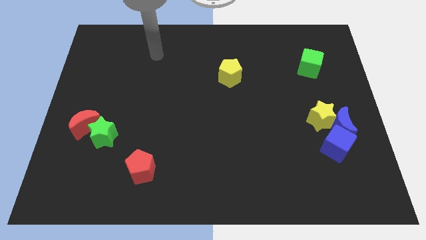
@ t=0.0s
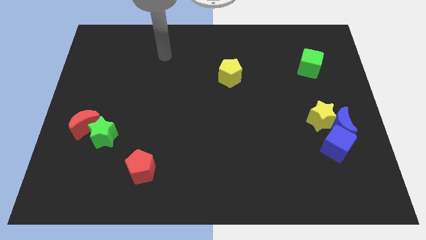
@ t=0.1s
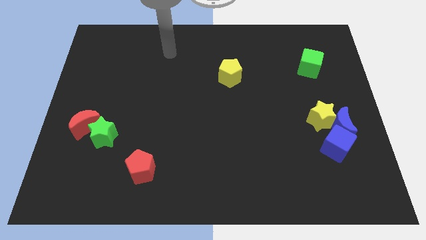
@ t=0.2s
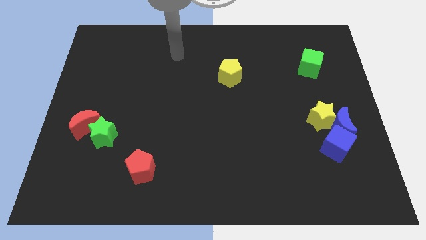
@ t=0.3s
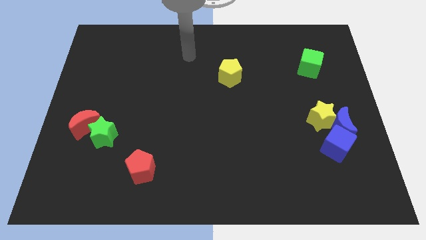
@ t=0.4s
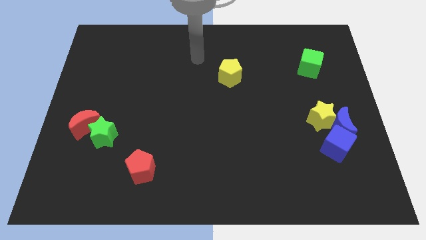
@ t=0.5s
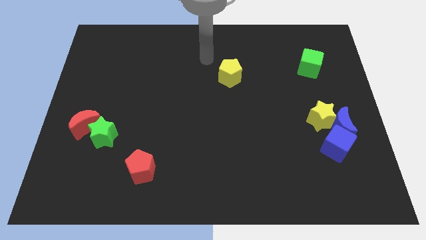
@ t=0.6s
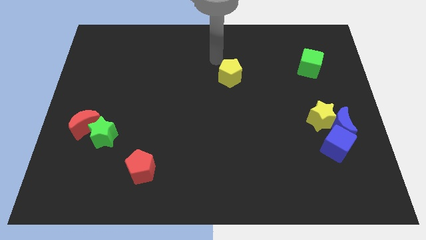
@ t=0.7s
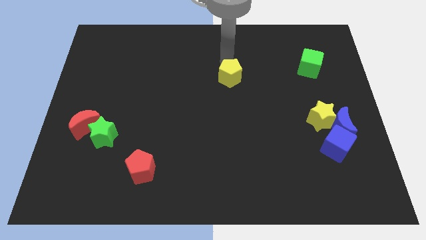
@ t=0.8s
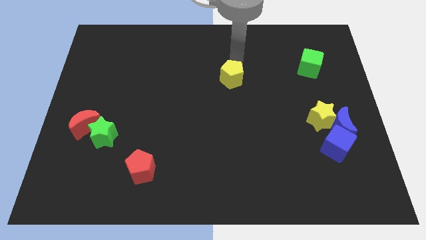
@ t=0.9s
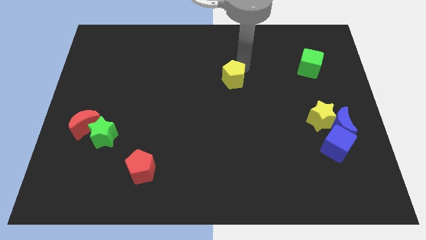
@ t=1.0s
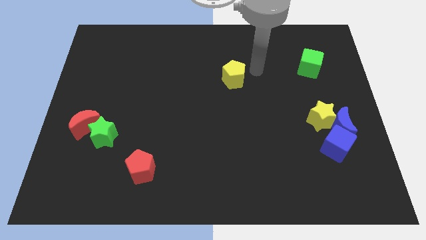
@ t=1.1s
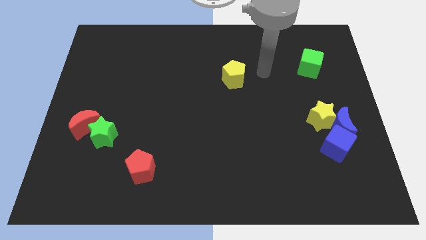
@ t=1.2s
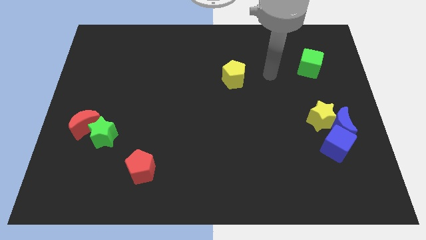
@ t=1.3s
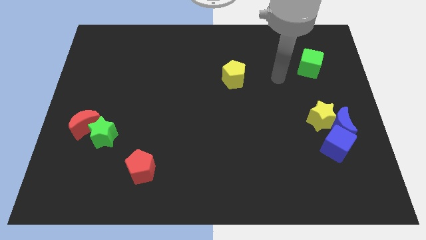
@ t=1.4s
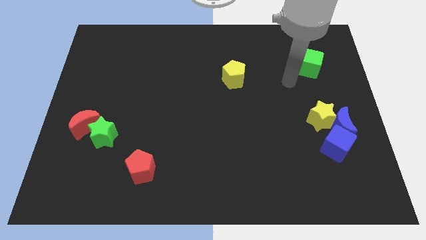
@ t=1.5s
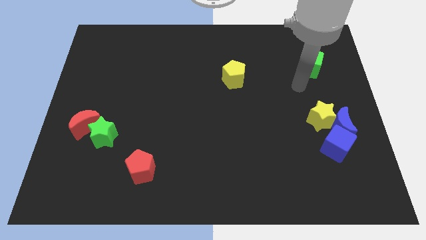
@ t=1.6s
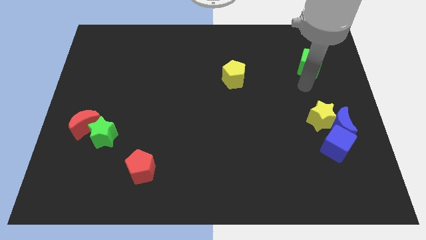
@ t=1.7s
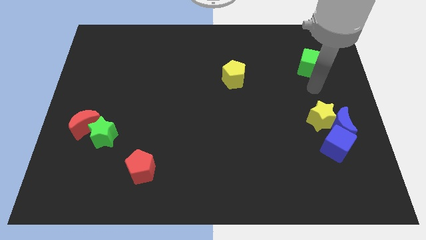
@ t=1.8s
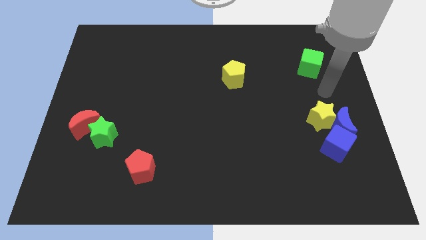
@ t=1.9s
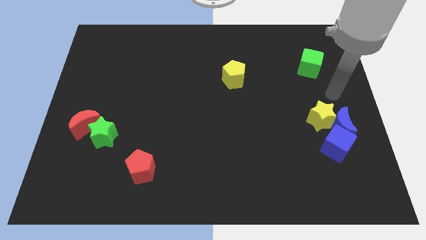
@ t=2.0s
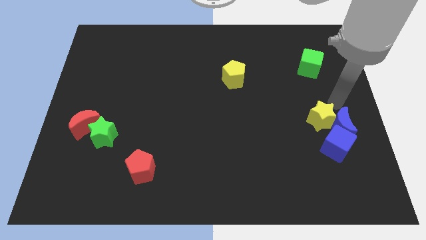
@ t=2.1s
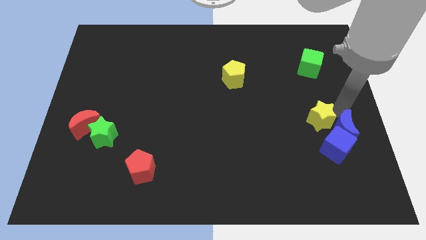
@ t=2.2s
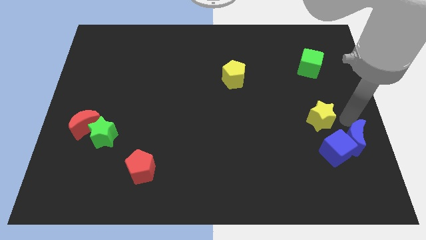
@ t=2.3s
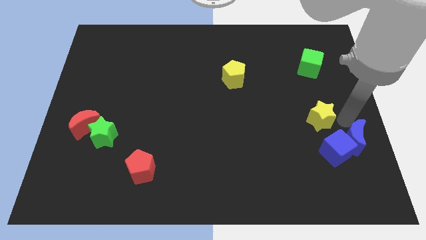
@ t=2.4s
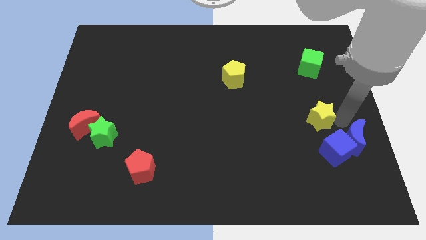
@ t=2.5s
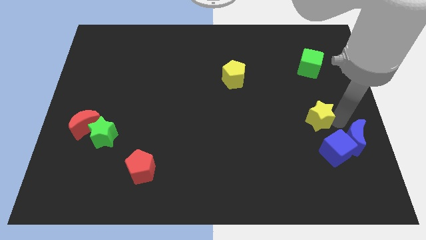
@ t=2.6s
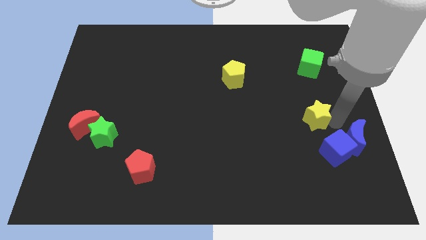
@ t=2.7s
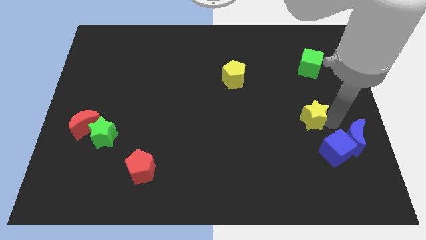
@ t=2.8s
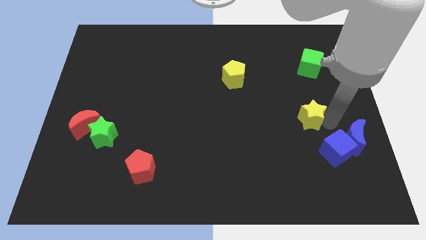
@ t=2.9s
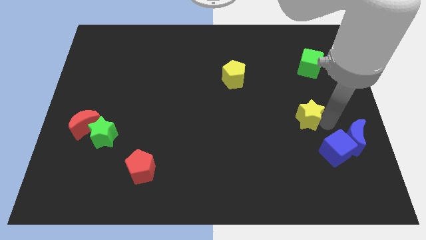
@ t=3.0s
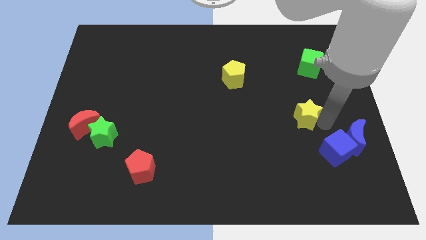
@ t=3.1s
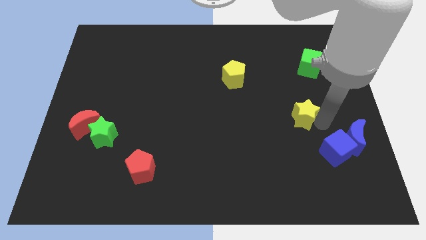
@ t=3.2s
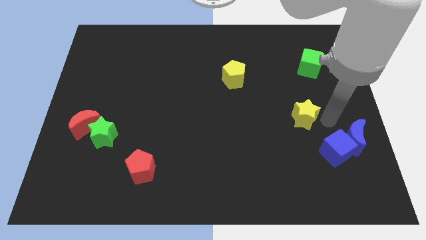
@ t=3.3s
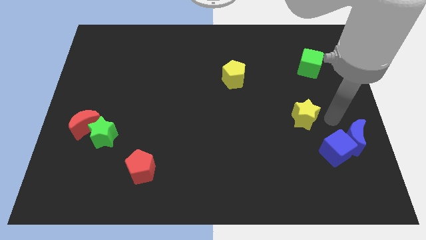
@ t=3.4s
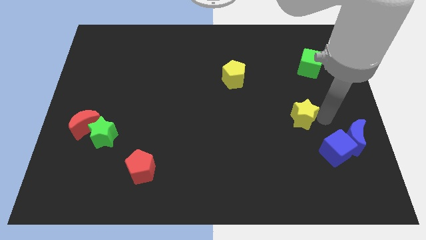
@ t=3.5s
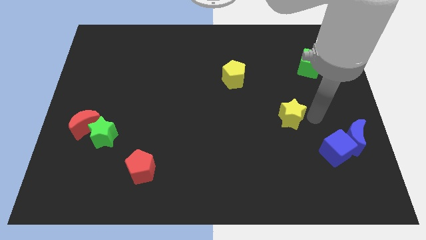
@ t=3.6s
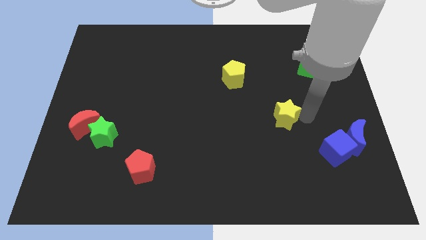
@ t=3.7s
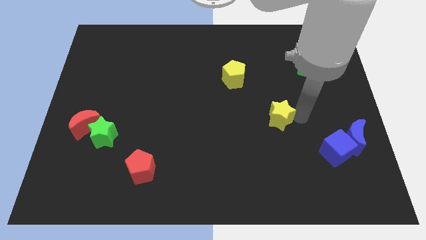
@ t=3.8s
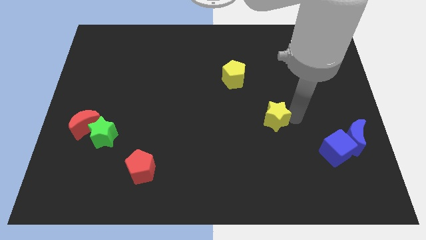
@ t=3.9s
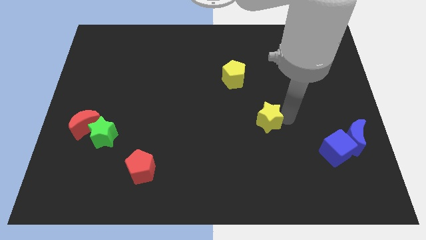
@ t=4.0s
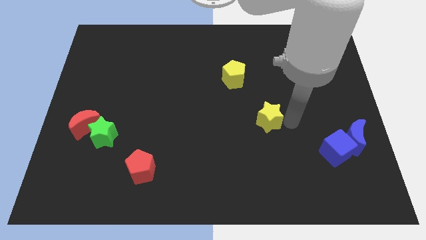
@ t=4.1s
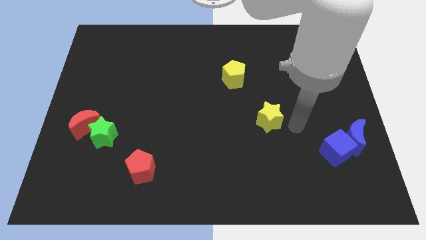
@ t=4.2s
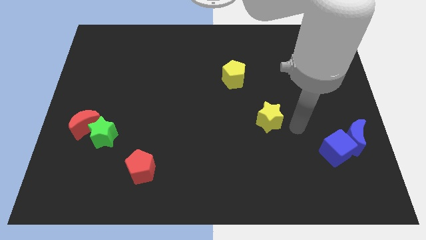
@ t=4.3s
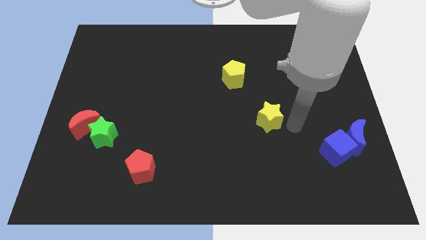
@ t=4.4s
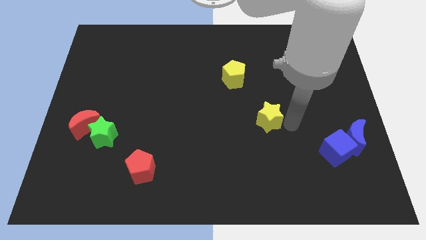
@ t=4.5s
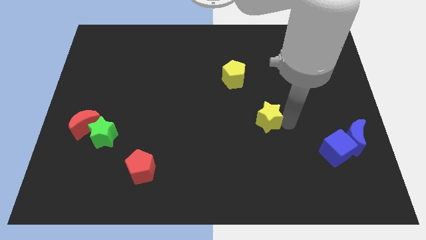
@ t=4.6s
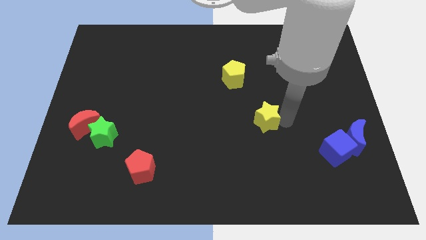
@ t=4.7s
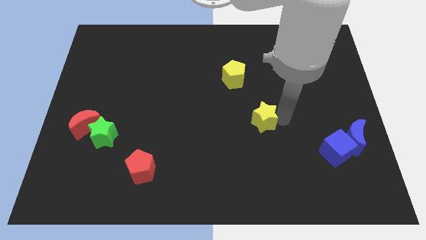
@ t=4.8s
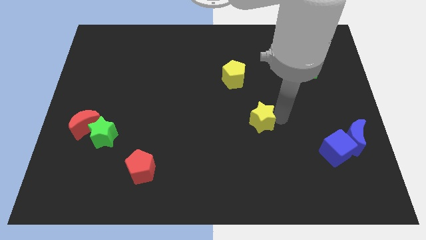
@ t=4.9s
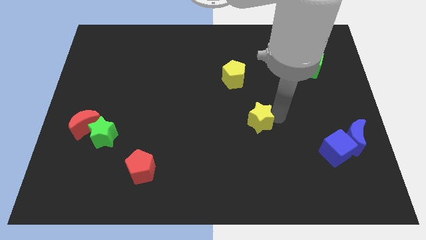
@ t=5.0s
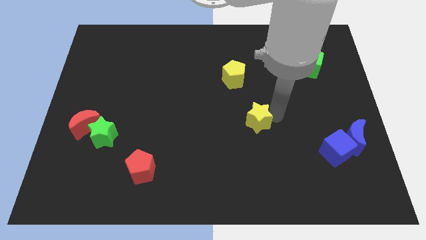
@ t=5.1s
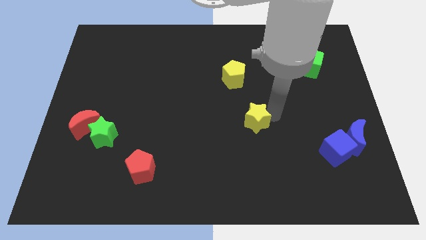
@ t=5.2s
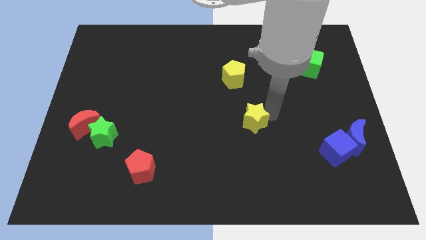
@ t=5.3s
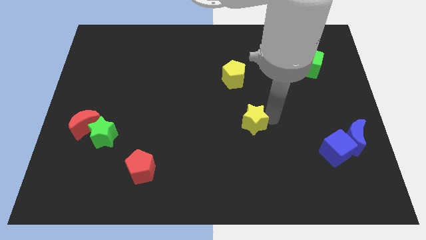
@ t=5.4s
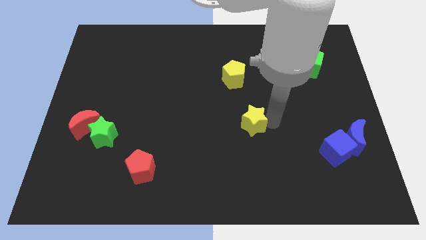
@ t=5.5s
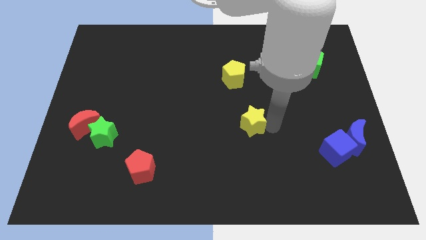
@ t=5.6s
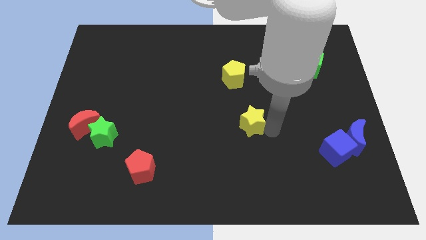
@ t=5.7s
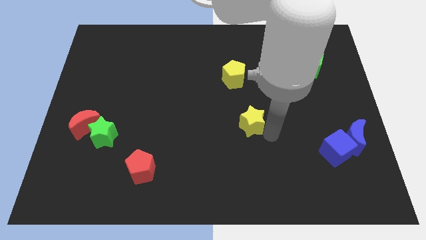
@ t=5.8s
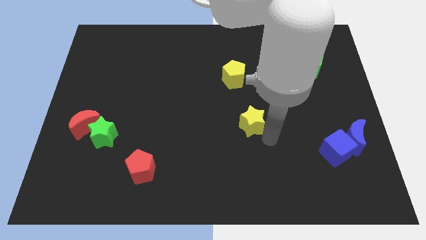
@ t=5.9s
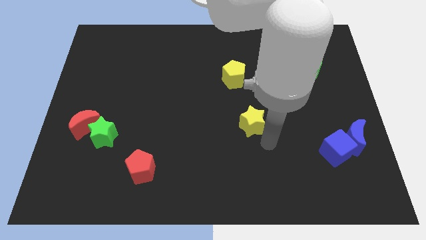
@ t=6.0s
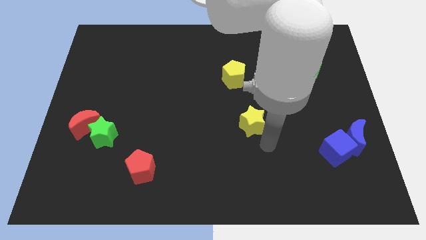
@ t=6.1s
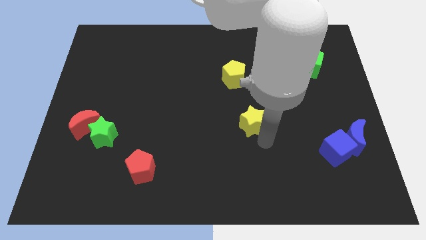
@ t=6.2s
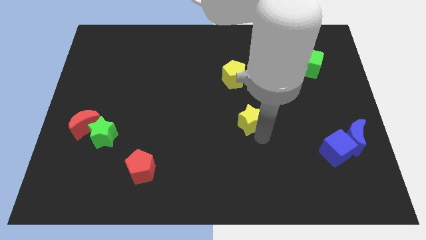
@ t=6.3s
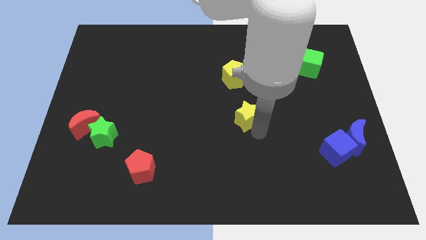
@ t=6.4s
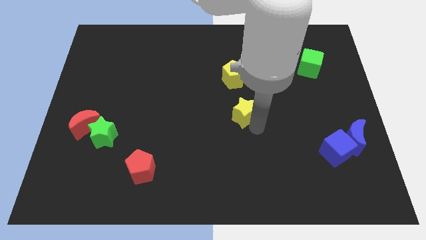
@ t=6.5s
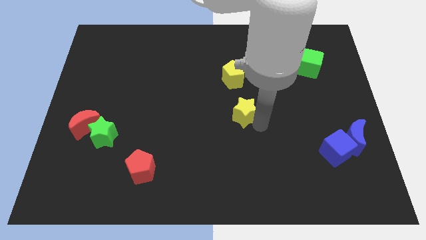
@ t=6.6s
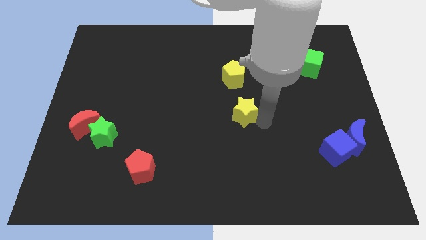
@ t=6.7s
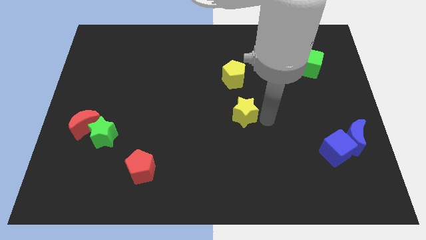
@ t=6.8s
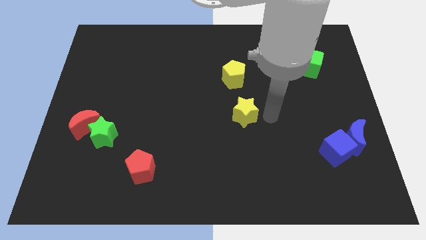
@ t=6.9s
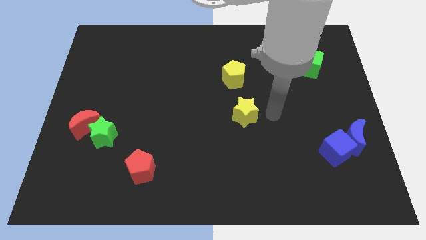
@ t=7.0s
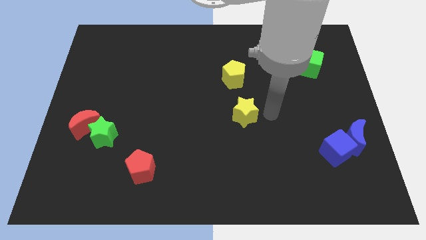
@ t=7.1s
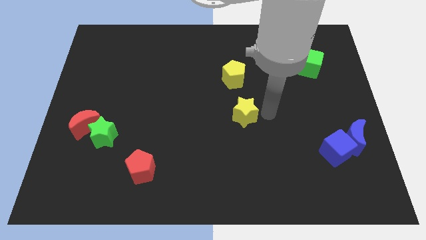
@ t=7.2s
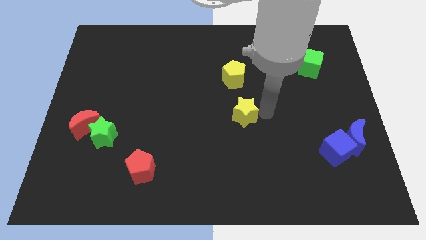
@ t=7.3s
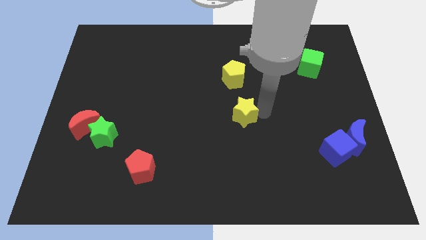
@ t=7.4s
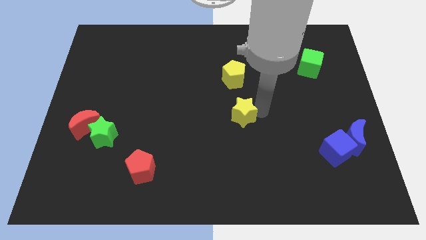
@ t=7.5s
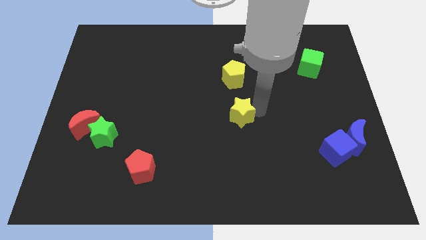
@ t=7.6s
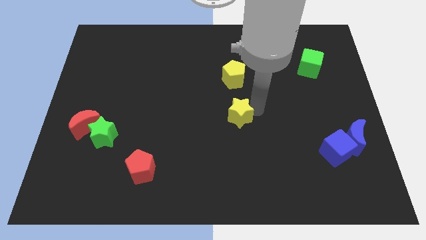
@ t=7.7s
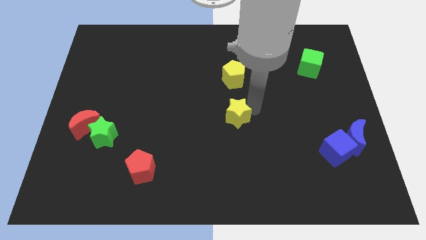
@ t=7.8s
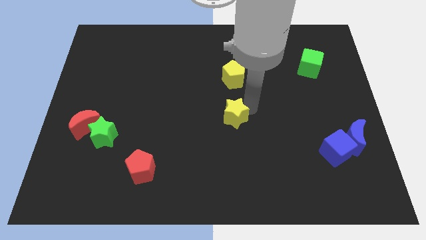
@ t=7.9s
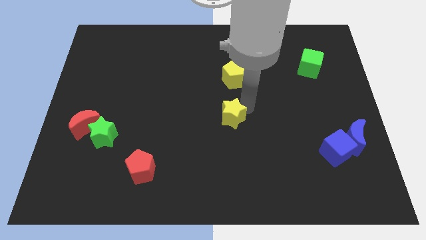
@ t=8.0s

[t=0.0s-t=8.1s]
move the yellow star left

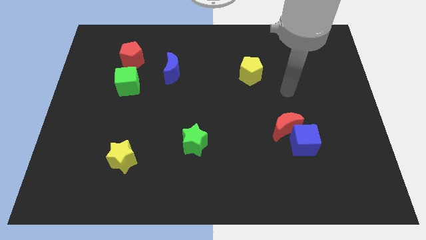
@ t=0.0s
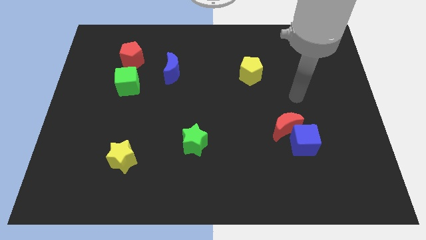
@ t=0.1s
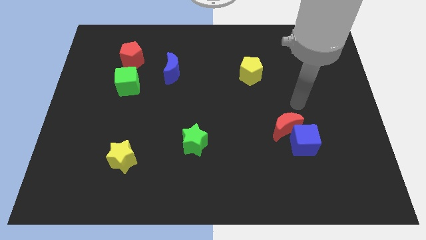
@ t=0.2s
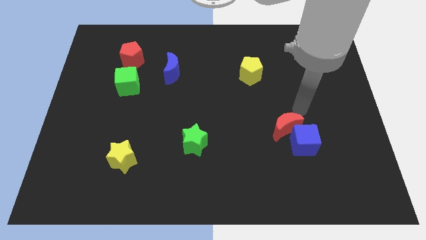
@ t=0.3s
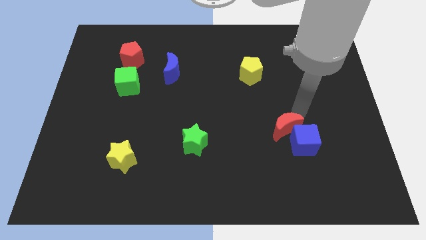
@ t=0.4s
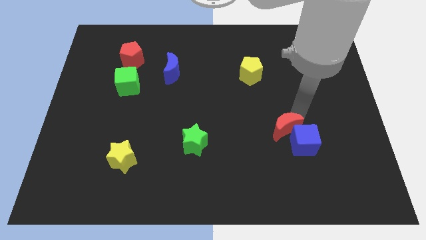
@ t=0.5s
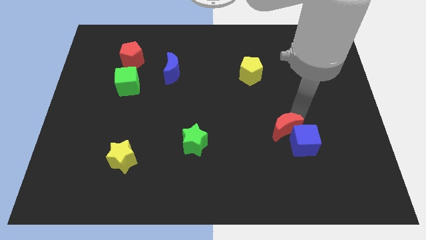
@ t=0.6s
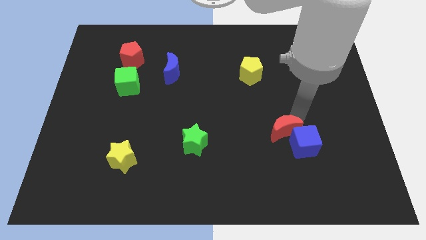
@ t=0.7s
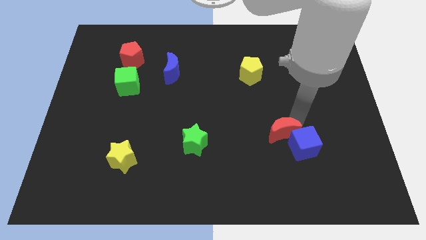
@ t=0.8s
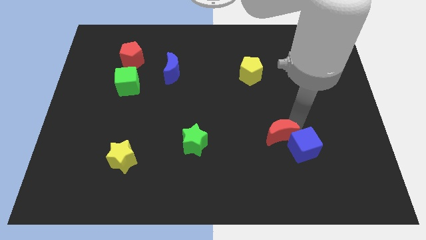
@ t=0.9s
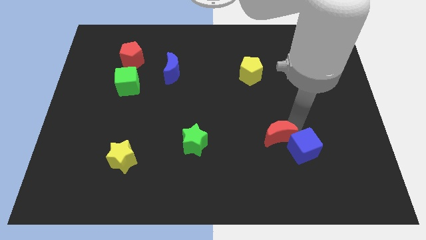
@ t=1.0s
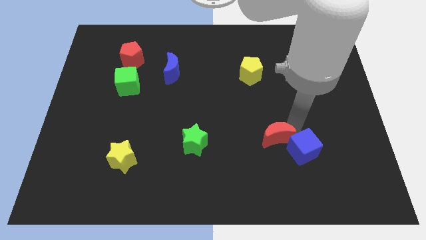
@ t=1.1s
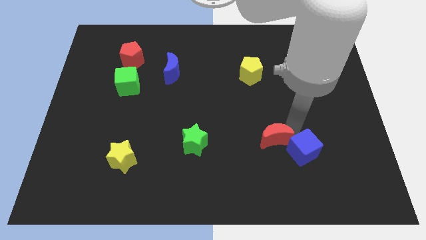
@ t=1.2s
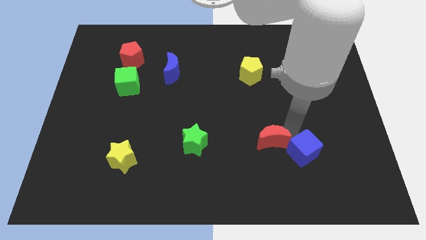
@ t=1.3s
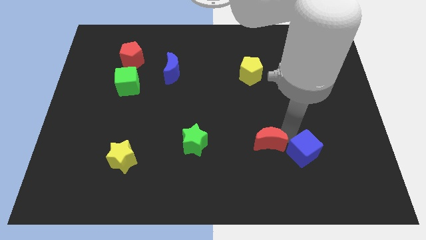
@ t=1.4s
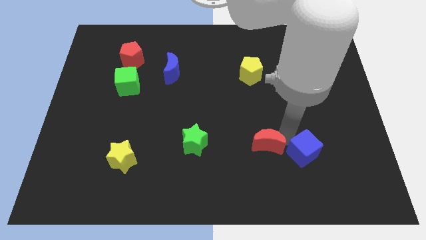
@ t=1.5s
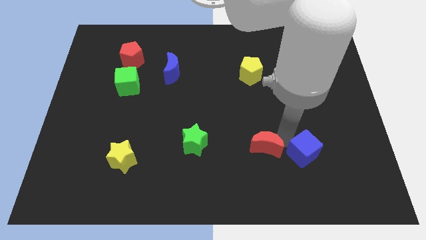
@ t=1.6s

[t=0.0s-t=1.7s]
slide the red moon down and left diagonally slightly
